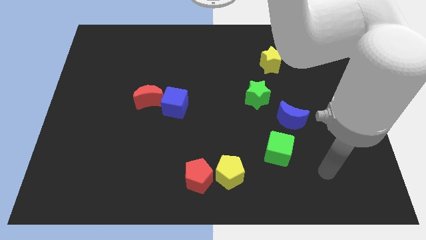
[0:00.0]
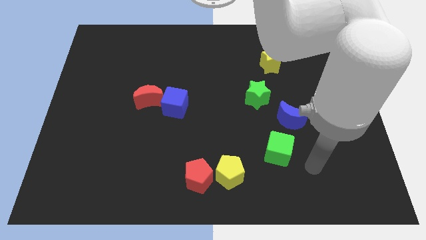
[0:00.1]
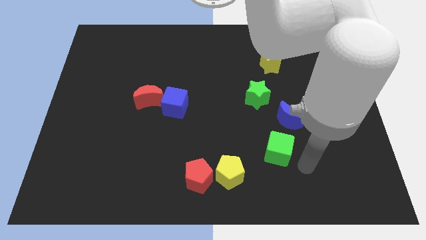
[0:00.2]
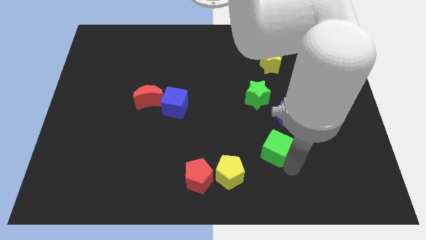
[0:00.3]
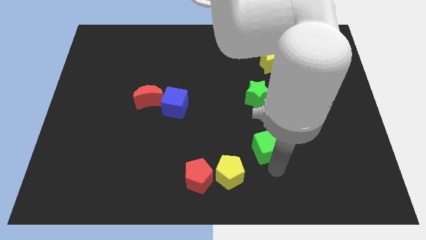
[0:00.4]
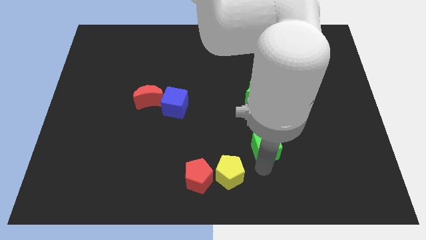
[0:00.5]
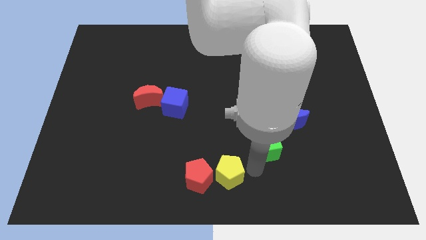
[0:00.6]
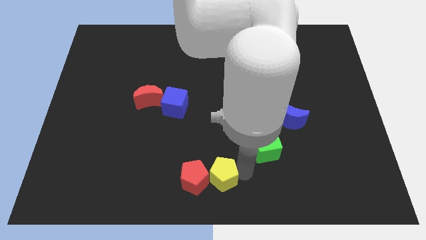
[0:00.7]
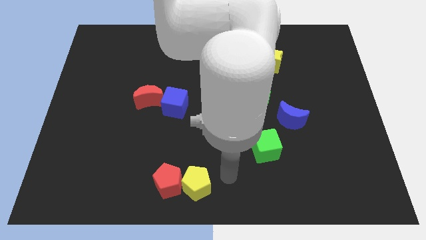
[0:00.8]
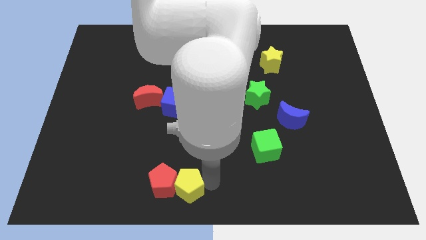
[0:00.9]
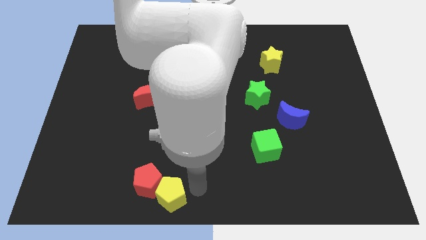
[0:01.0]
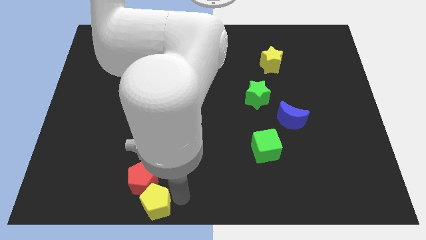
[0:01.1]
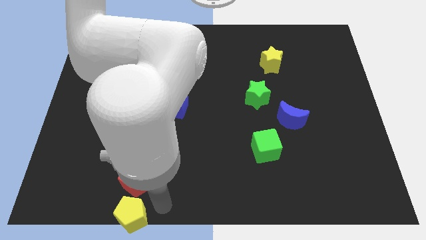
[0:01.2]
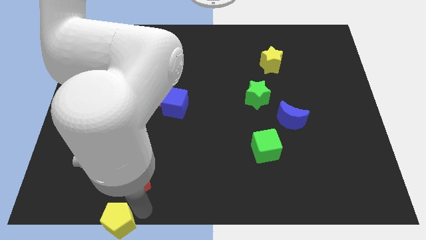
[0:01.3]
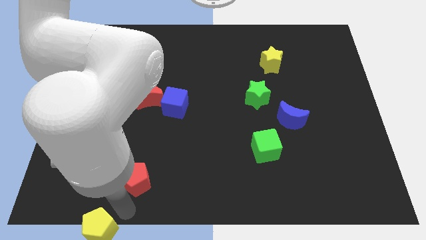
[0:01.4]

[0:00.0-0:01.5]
move the red pentagon away from the yellow pentagon

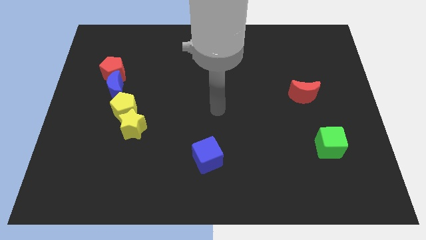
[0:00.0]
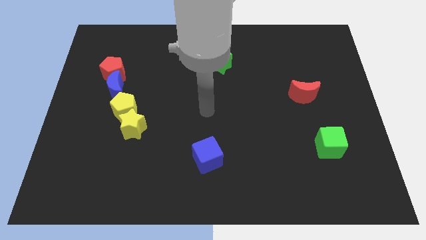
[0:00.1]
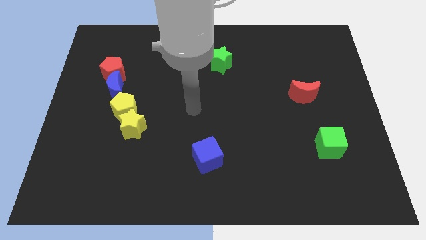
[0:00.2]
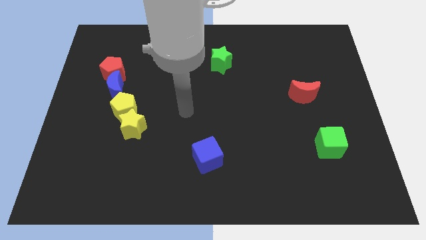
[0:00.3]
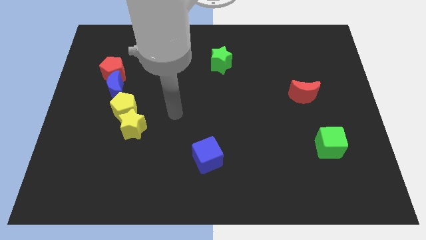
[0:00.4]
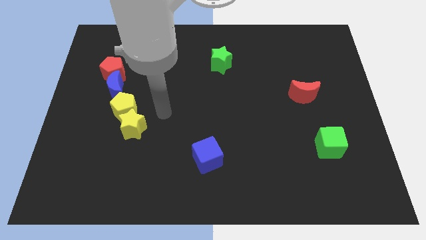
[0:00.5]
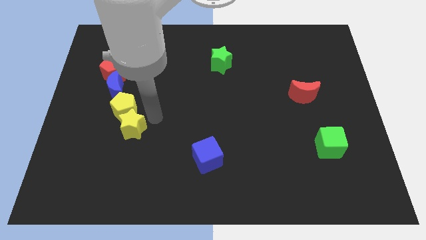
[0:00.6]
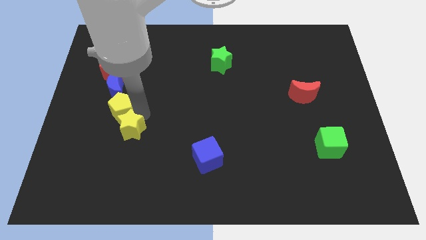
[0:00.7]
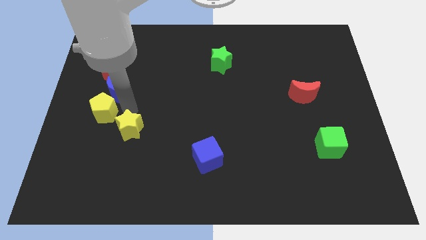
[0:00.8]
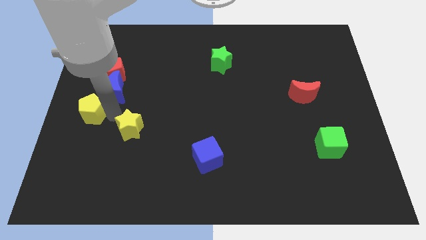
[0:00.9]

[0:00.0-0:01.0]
move the yellow star away from the yellow pentagon

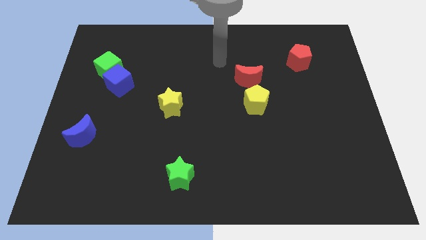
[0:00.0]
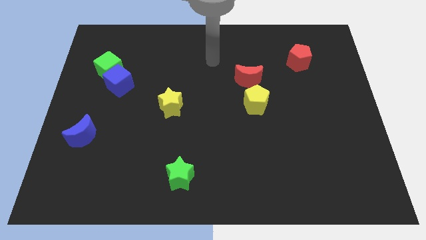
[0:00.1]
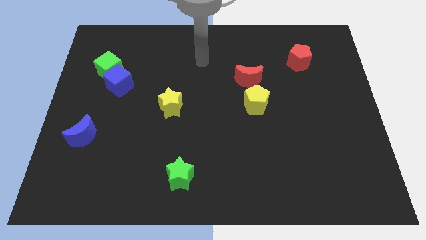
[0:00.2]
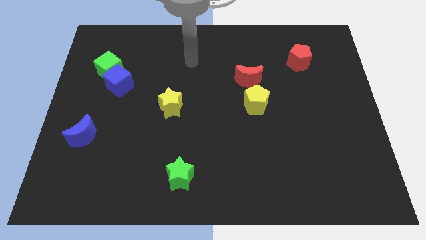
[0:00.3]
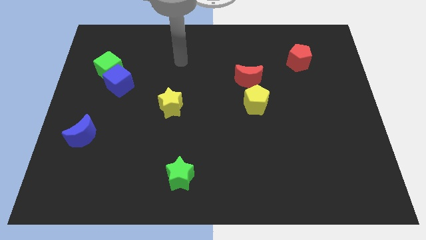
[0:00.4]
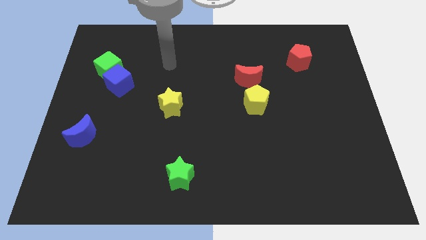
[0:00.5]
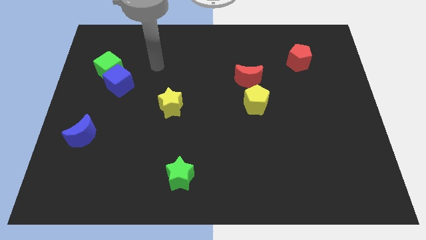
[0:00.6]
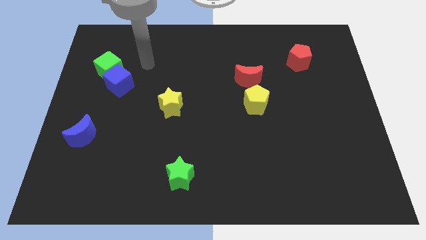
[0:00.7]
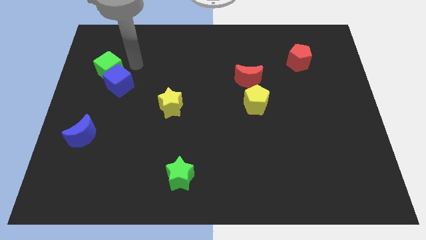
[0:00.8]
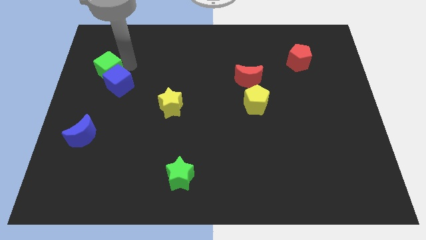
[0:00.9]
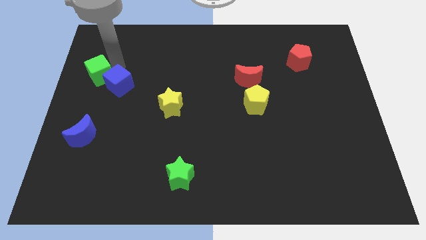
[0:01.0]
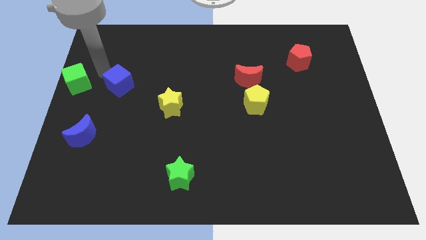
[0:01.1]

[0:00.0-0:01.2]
move the blue cube away from the green cube

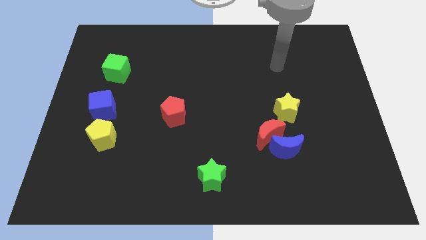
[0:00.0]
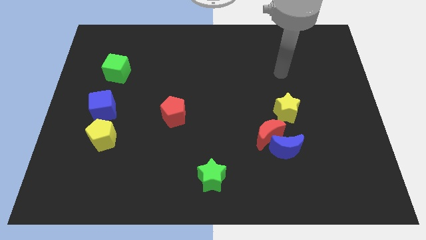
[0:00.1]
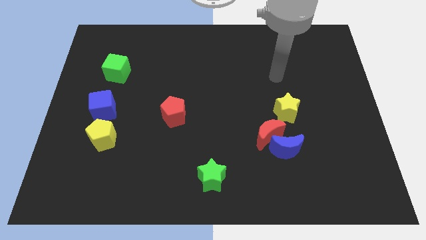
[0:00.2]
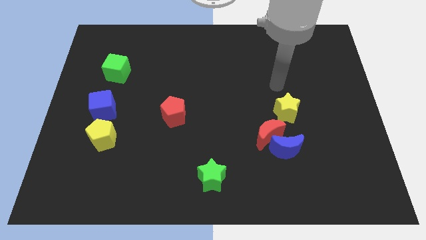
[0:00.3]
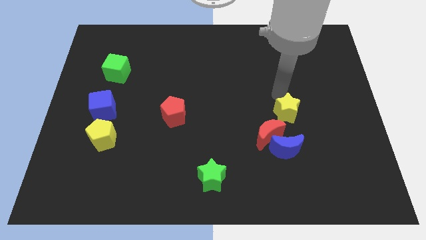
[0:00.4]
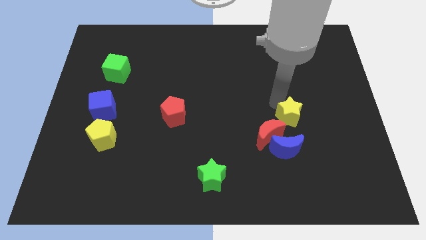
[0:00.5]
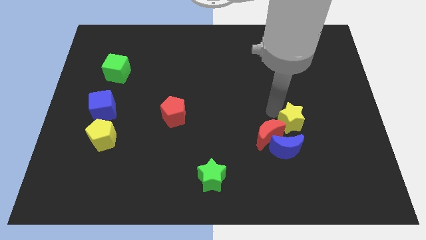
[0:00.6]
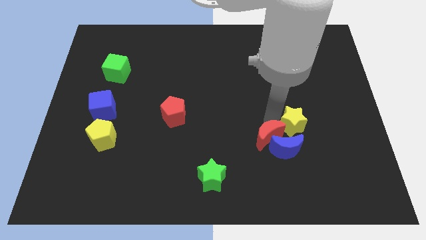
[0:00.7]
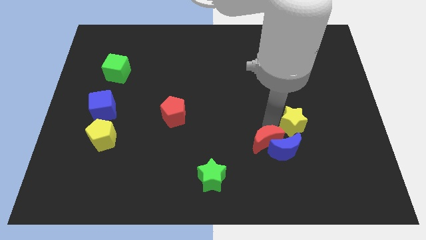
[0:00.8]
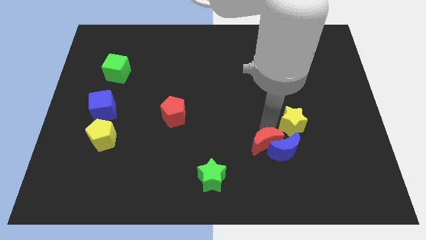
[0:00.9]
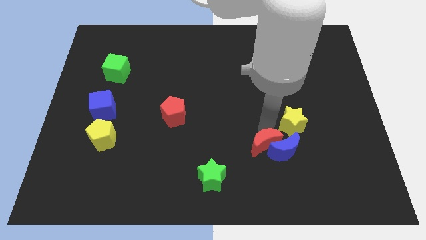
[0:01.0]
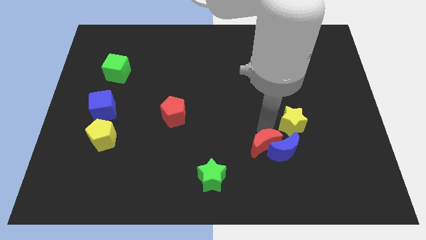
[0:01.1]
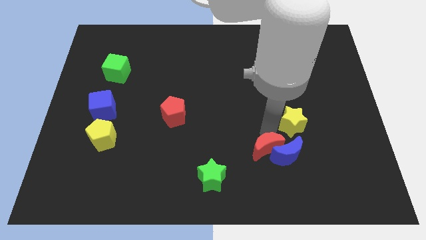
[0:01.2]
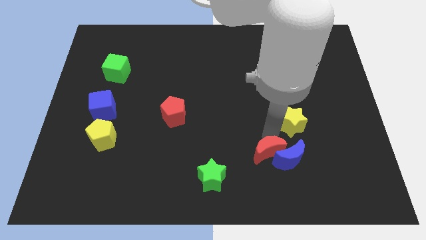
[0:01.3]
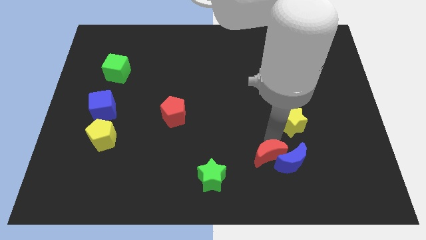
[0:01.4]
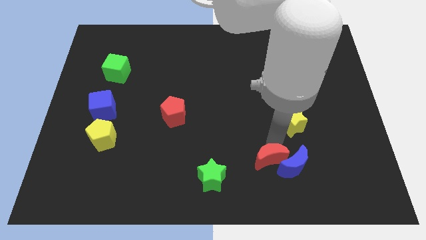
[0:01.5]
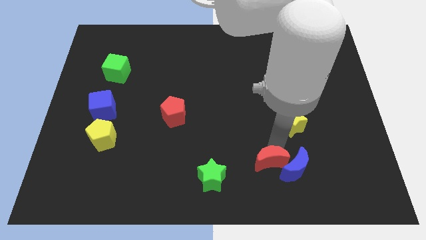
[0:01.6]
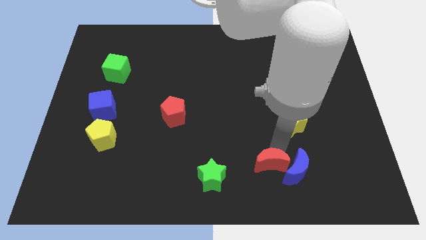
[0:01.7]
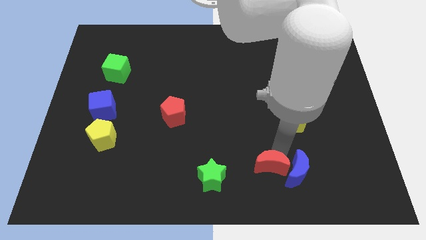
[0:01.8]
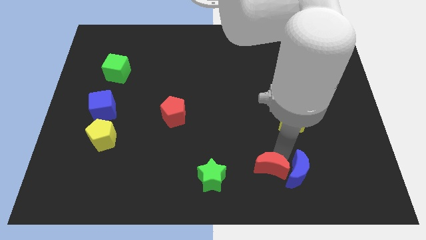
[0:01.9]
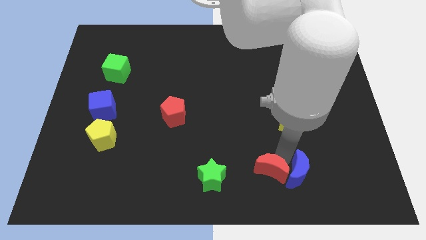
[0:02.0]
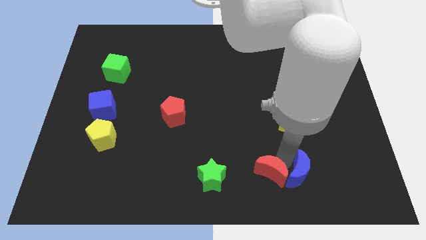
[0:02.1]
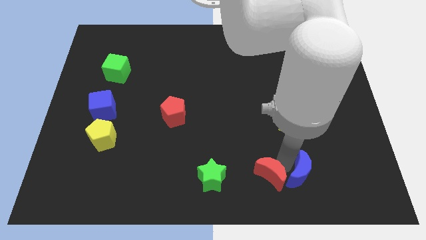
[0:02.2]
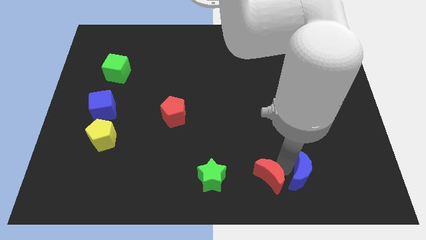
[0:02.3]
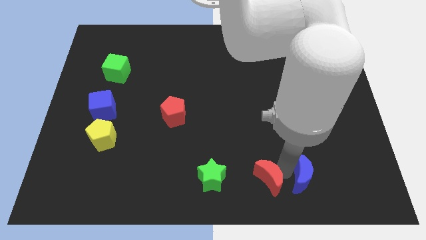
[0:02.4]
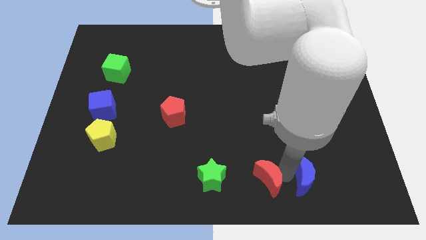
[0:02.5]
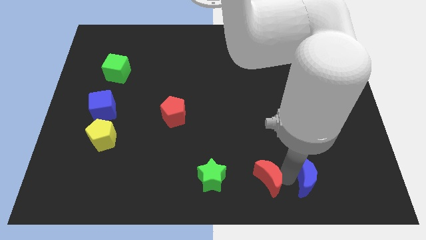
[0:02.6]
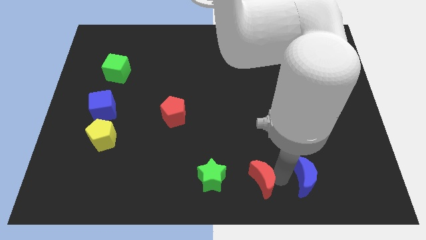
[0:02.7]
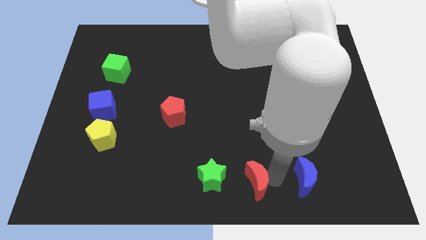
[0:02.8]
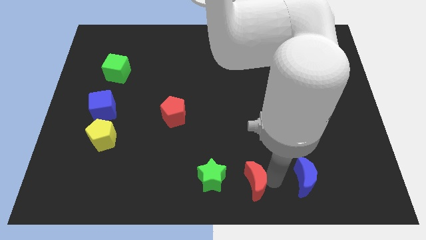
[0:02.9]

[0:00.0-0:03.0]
pull the blue moon apart from the red moon

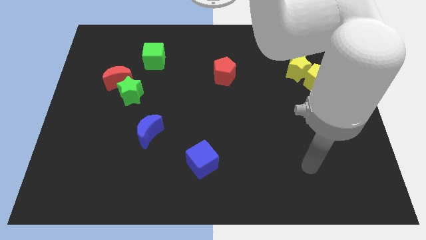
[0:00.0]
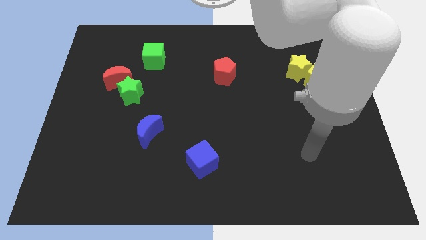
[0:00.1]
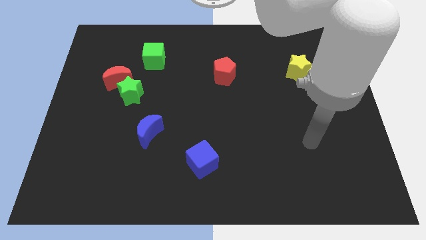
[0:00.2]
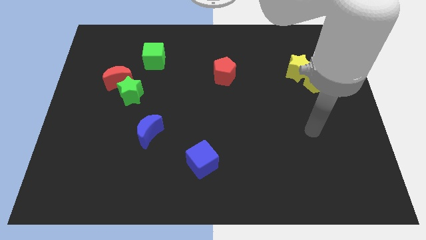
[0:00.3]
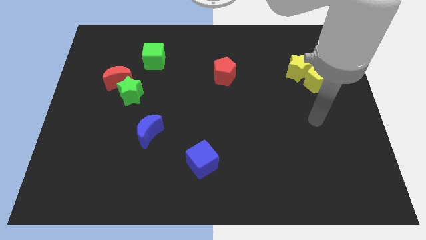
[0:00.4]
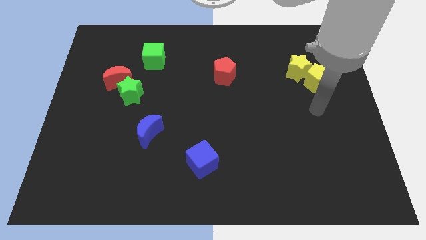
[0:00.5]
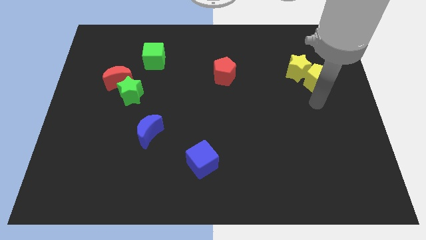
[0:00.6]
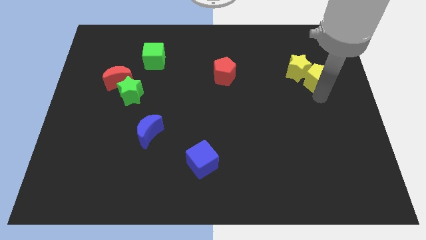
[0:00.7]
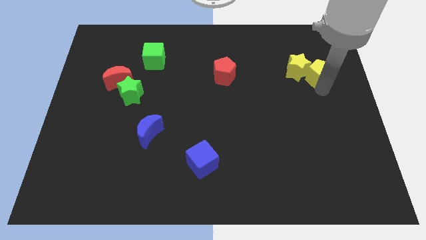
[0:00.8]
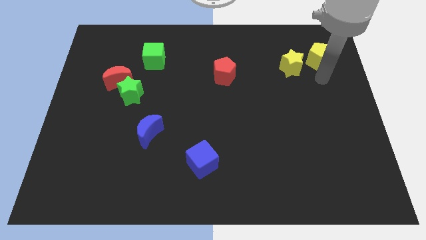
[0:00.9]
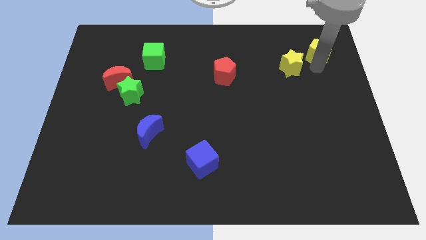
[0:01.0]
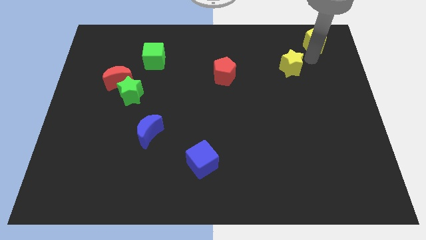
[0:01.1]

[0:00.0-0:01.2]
pull the yellow star apart from the yellow pentagon

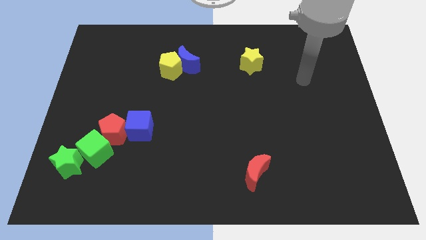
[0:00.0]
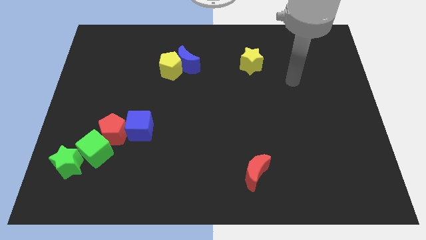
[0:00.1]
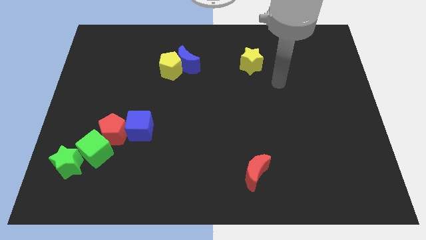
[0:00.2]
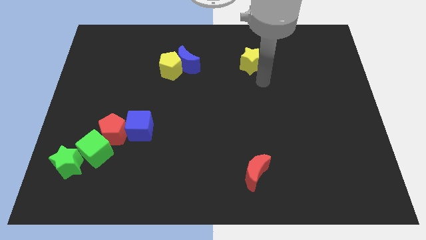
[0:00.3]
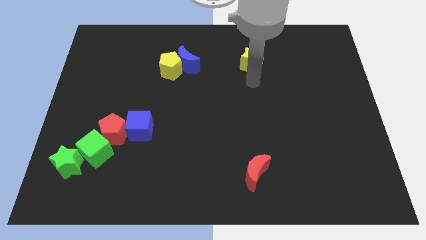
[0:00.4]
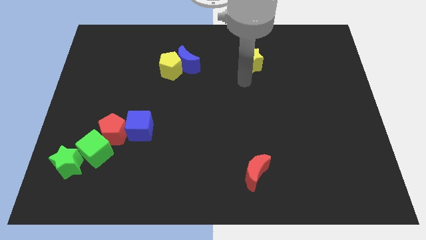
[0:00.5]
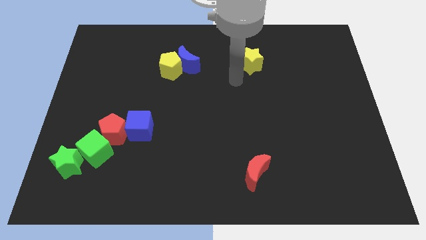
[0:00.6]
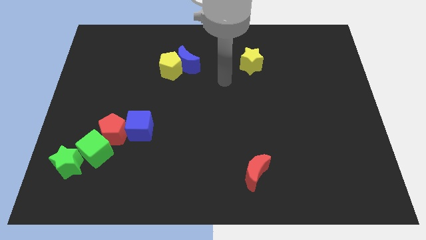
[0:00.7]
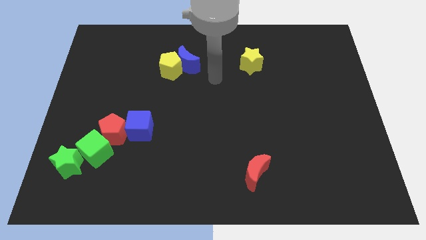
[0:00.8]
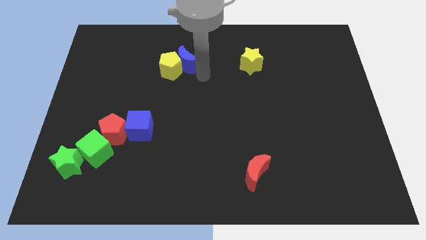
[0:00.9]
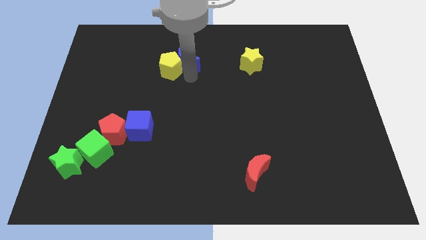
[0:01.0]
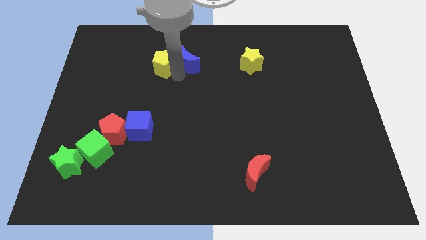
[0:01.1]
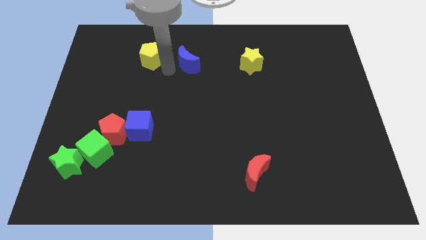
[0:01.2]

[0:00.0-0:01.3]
move the blue moon away from the yellow pentagon

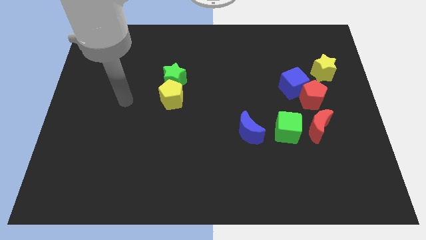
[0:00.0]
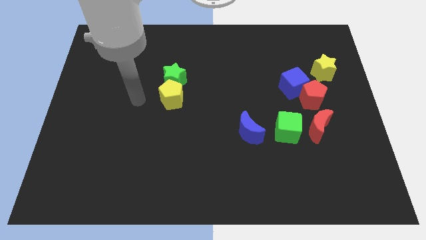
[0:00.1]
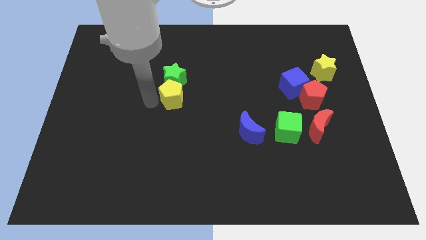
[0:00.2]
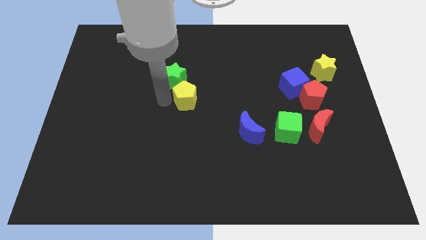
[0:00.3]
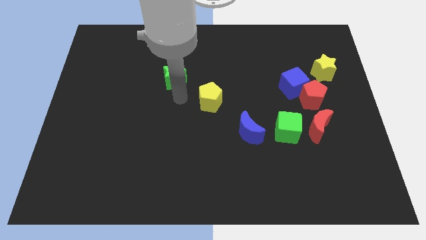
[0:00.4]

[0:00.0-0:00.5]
move the green star away from the yellow pentagon
